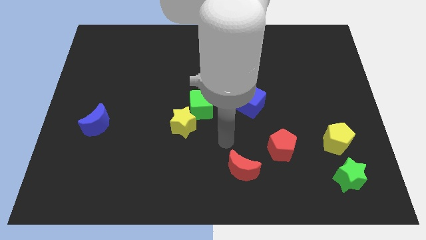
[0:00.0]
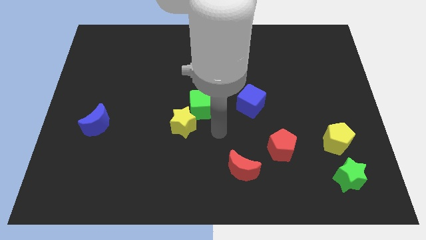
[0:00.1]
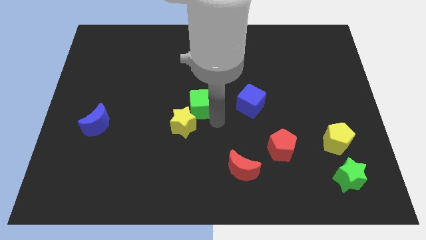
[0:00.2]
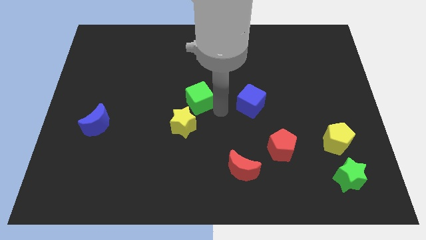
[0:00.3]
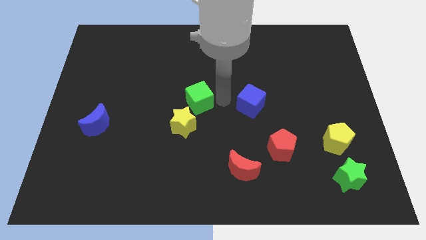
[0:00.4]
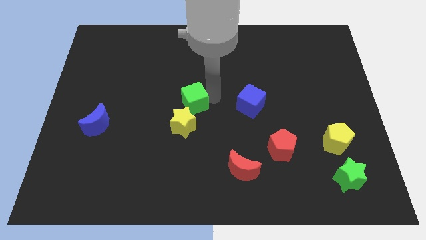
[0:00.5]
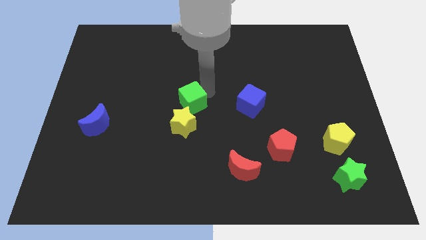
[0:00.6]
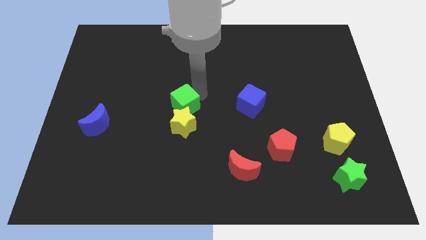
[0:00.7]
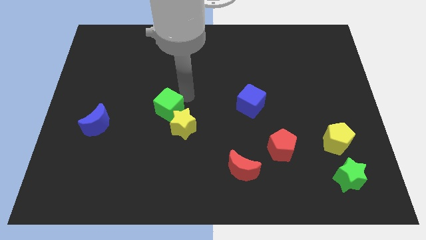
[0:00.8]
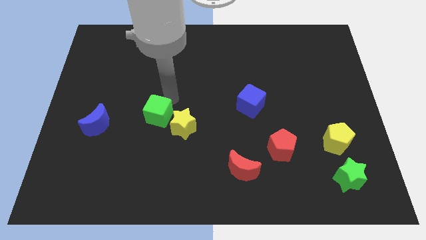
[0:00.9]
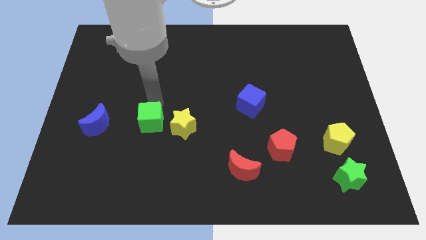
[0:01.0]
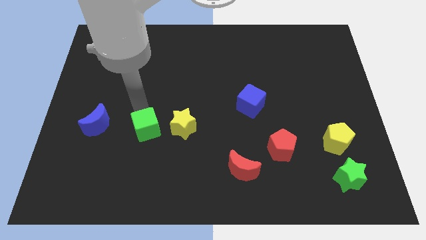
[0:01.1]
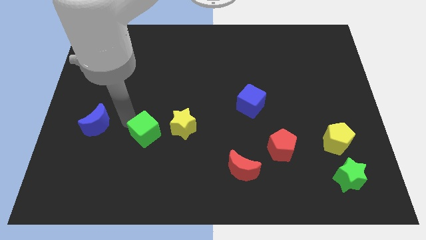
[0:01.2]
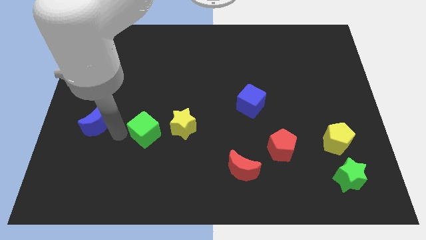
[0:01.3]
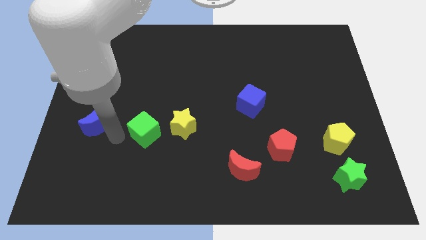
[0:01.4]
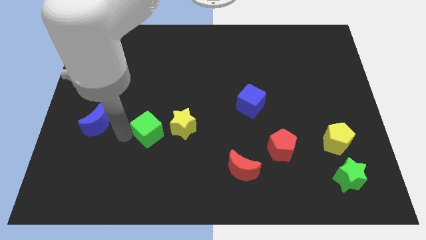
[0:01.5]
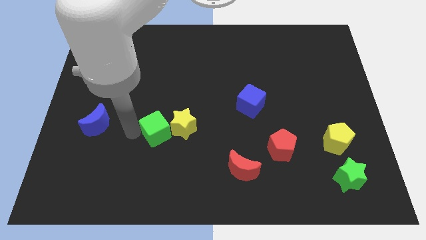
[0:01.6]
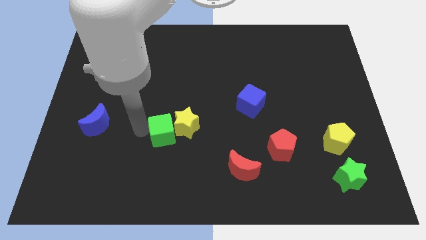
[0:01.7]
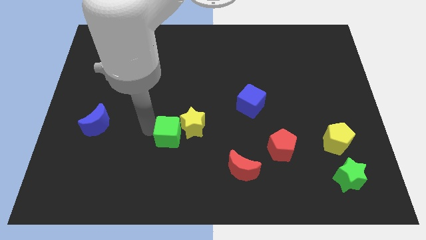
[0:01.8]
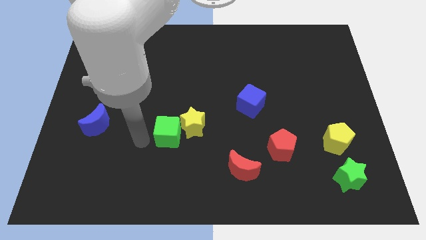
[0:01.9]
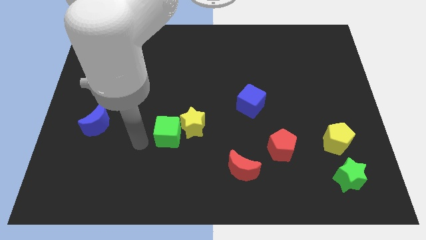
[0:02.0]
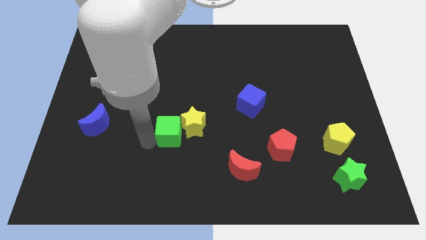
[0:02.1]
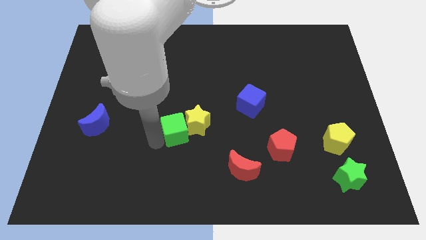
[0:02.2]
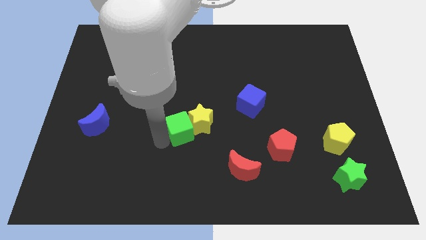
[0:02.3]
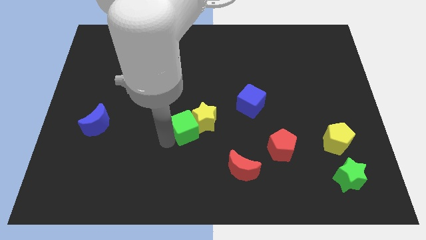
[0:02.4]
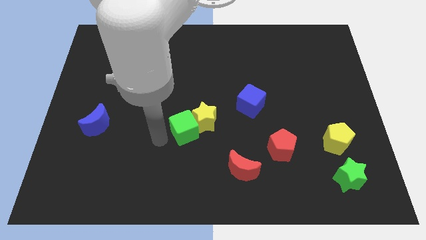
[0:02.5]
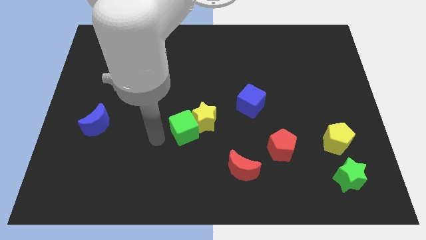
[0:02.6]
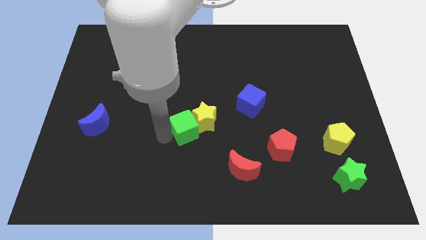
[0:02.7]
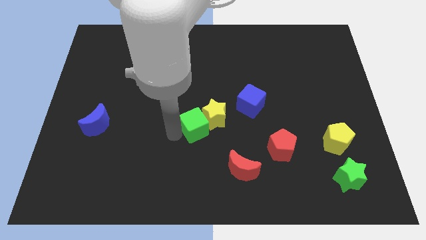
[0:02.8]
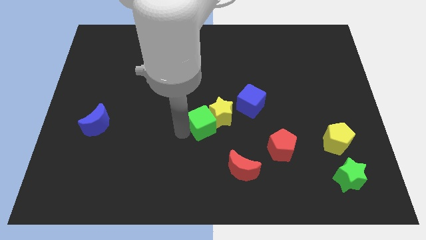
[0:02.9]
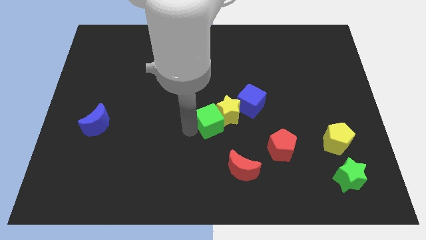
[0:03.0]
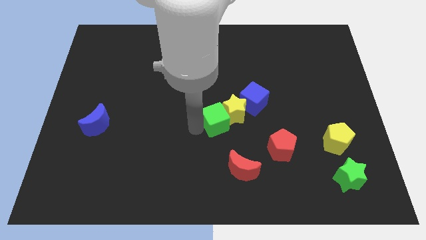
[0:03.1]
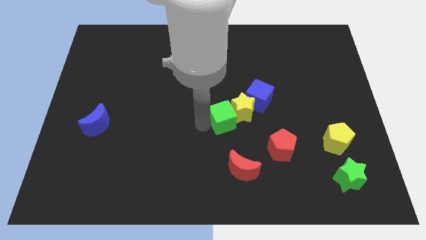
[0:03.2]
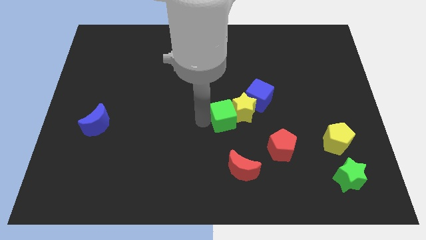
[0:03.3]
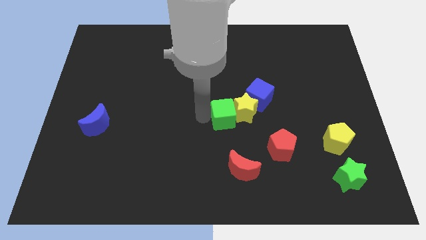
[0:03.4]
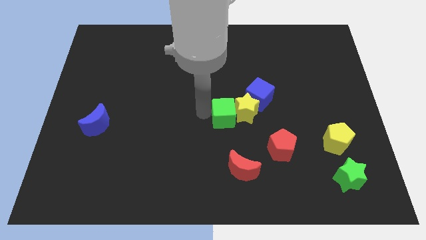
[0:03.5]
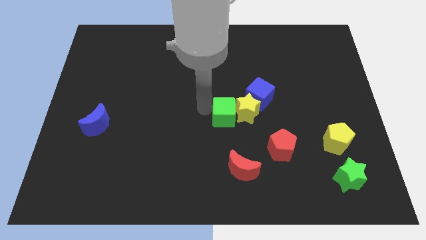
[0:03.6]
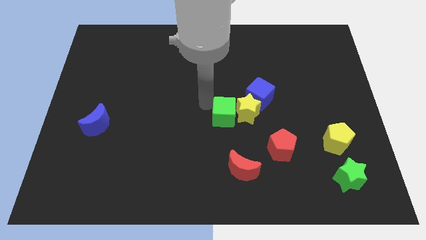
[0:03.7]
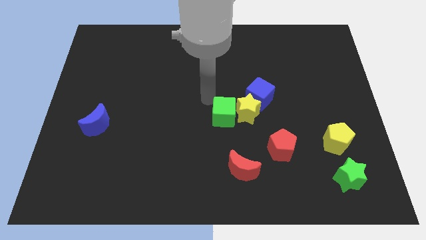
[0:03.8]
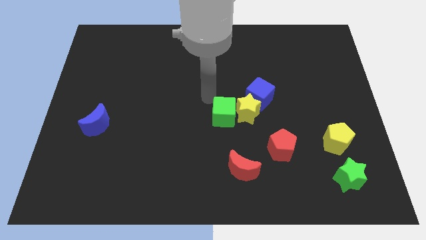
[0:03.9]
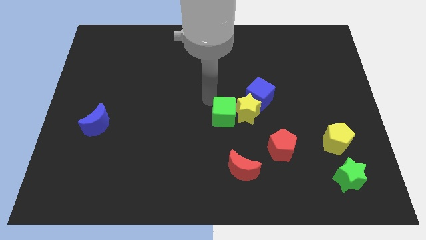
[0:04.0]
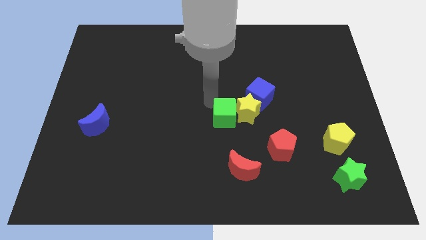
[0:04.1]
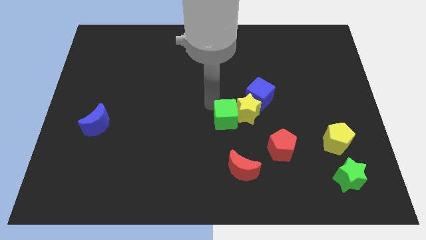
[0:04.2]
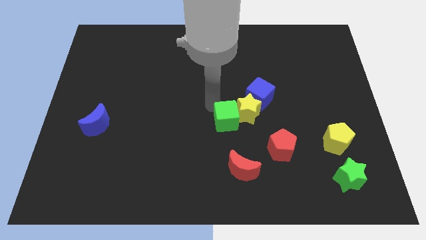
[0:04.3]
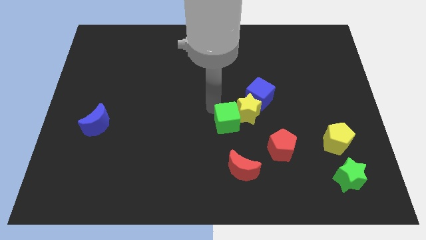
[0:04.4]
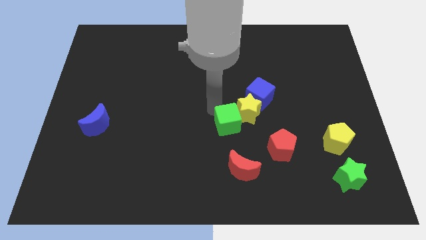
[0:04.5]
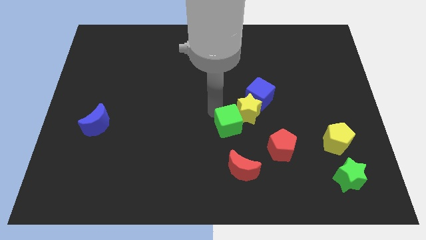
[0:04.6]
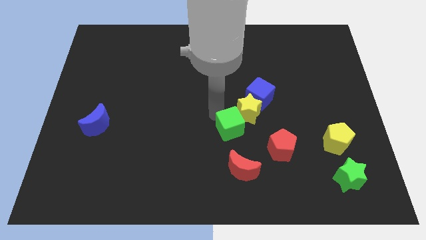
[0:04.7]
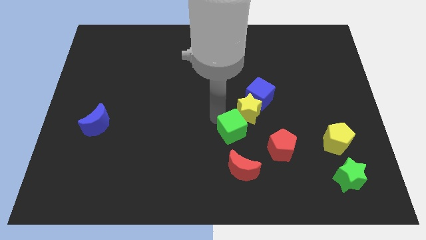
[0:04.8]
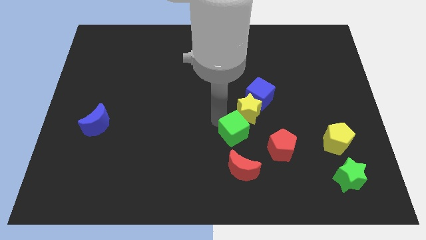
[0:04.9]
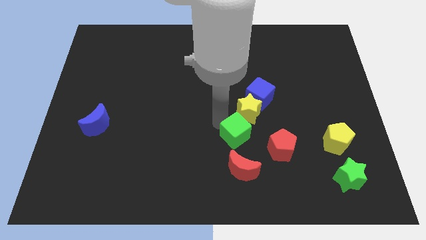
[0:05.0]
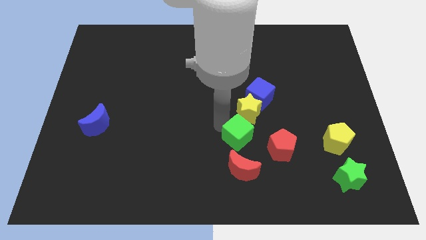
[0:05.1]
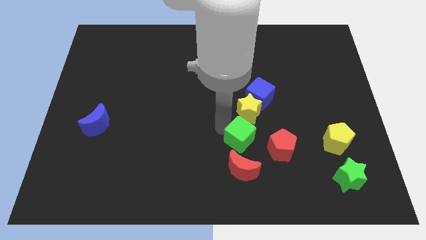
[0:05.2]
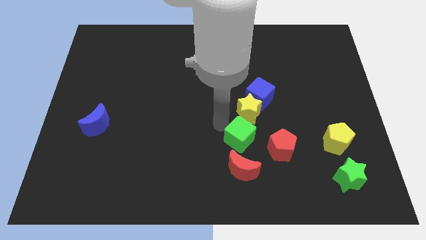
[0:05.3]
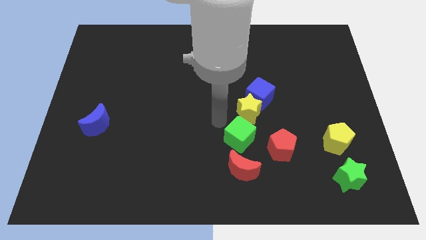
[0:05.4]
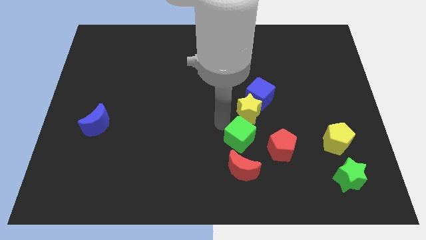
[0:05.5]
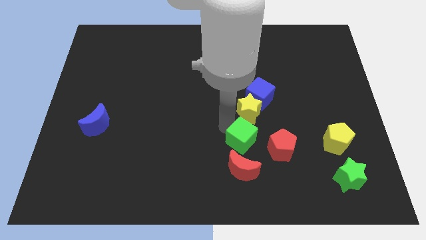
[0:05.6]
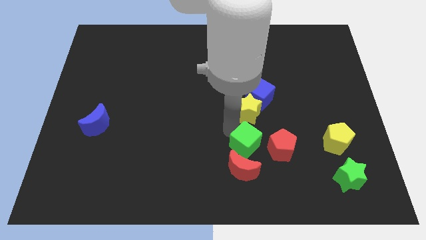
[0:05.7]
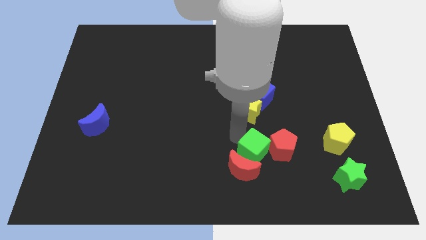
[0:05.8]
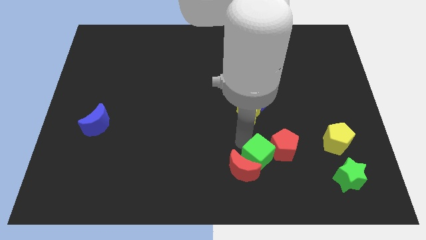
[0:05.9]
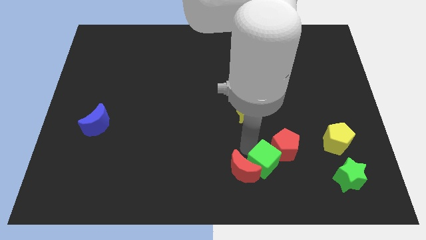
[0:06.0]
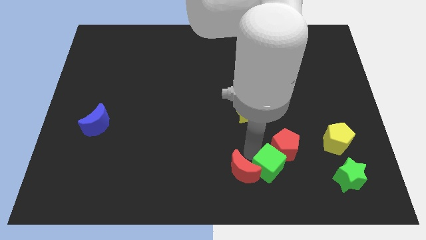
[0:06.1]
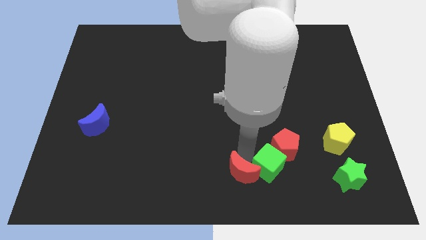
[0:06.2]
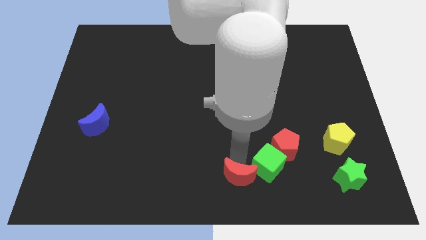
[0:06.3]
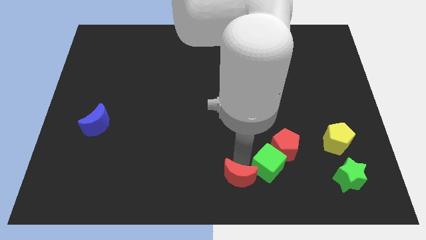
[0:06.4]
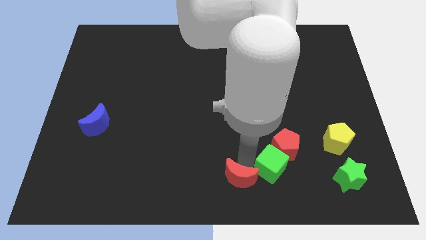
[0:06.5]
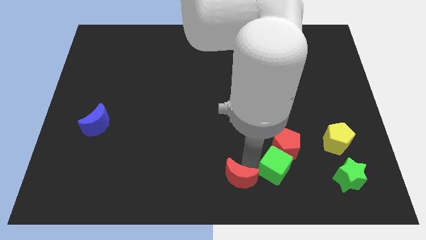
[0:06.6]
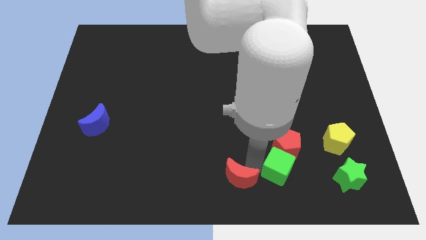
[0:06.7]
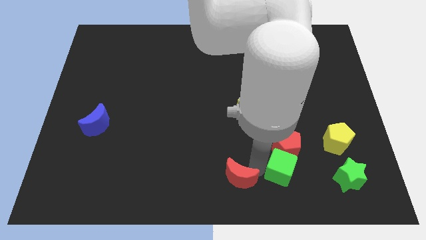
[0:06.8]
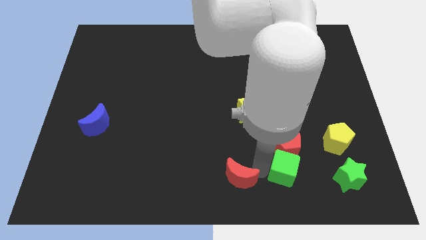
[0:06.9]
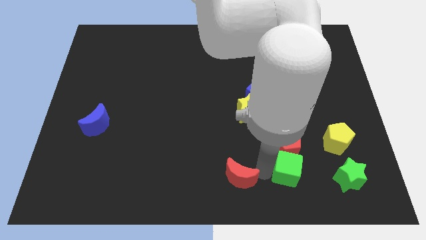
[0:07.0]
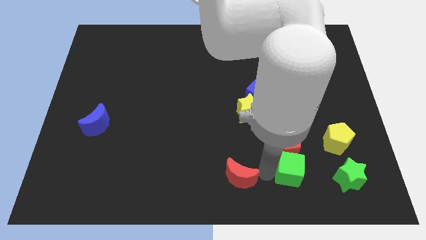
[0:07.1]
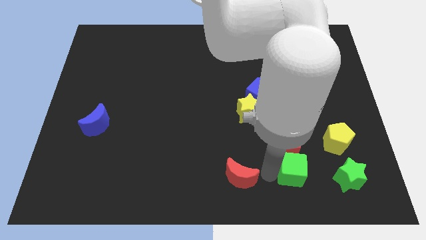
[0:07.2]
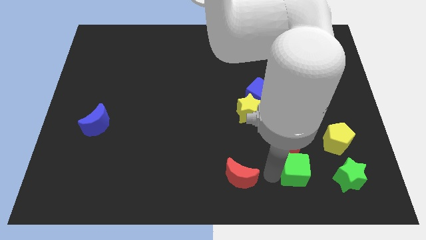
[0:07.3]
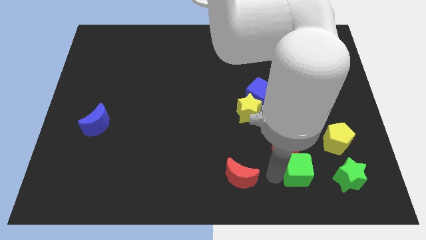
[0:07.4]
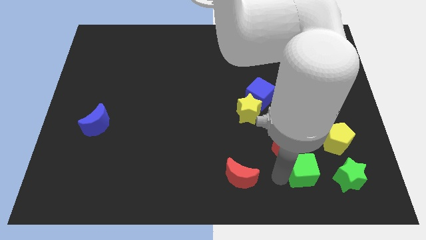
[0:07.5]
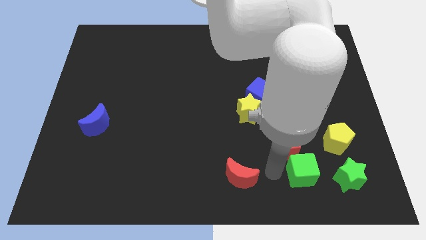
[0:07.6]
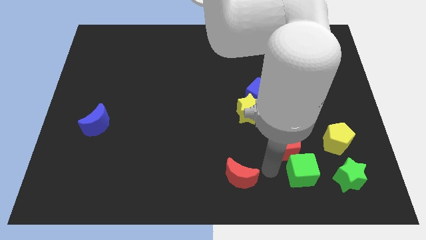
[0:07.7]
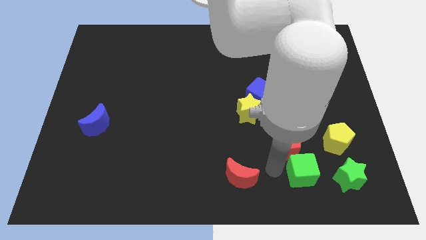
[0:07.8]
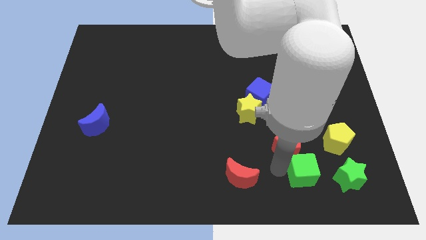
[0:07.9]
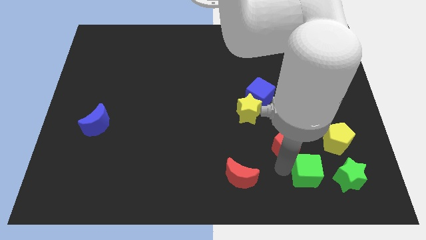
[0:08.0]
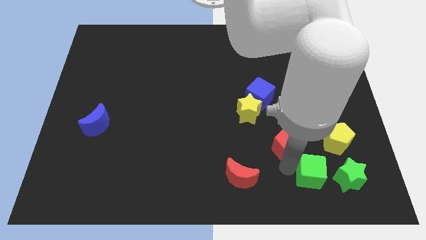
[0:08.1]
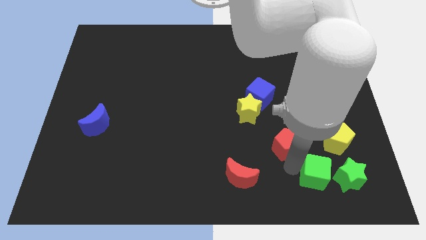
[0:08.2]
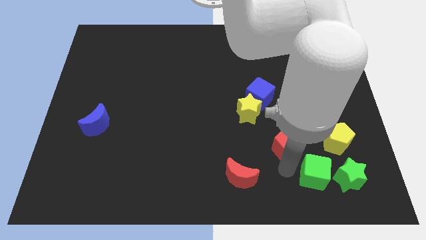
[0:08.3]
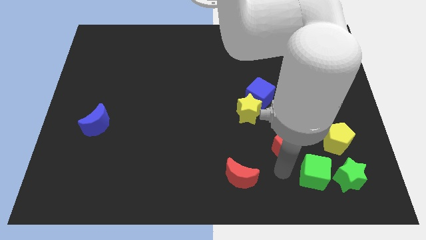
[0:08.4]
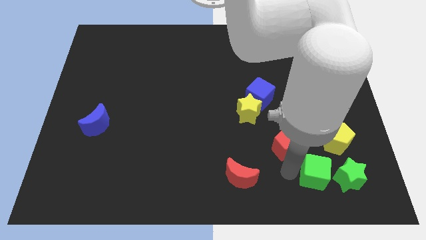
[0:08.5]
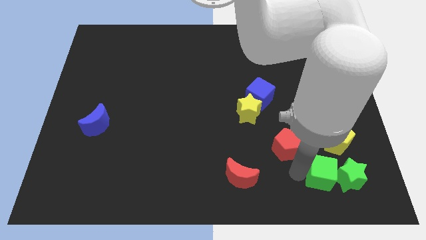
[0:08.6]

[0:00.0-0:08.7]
slide the green cube next to the green star
